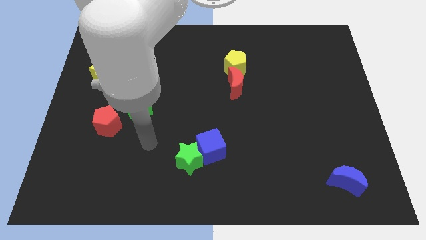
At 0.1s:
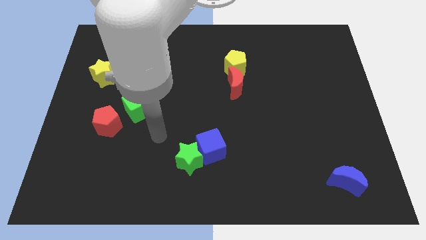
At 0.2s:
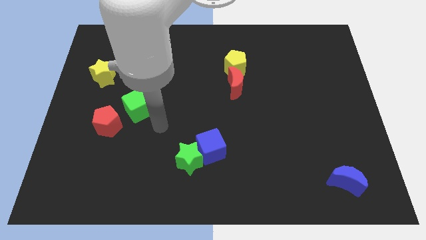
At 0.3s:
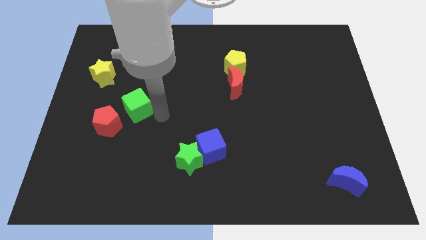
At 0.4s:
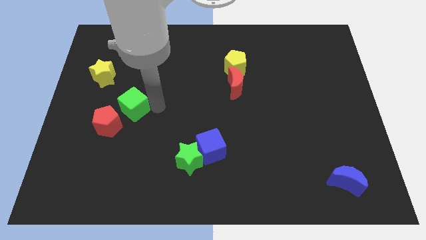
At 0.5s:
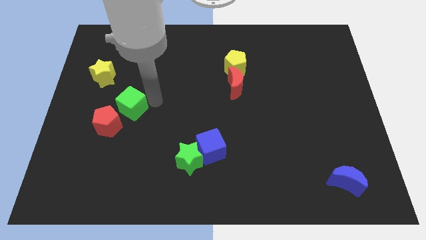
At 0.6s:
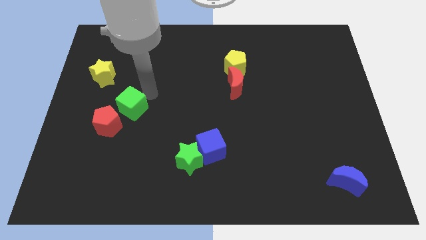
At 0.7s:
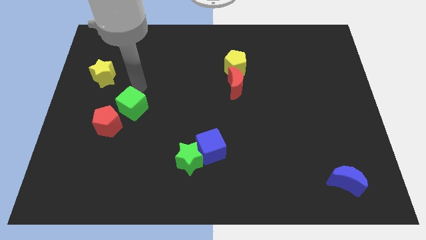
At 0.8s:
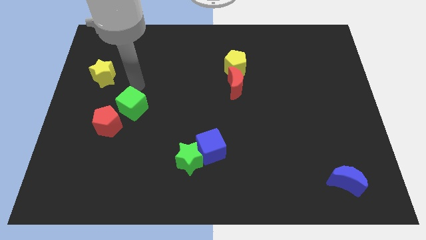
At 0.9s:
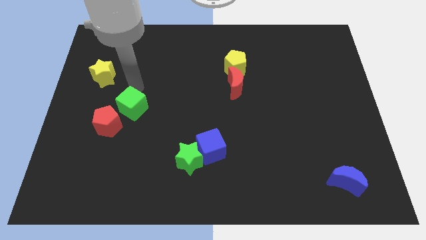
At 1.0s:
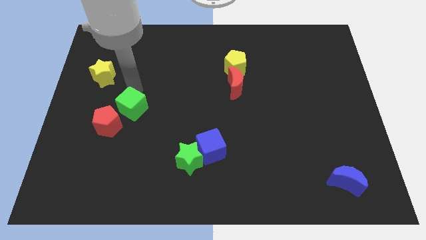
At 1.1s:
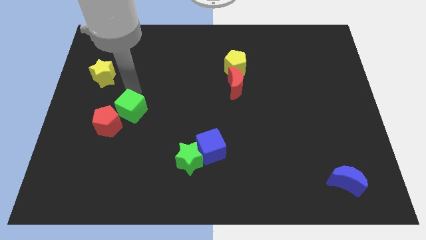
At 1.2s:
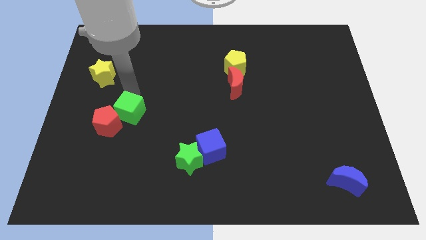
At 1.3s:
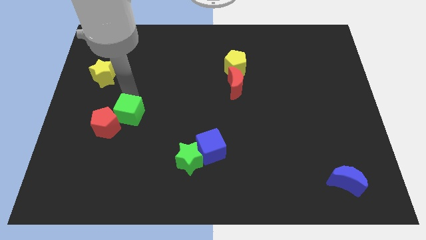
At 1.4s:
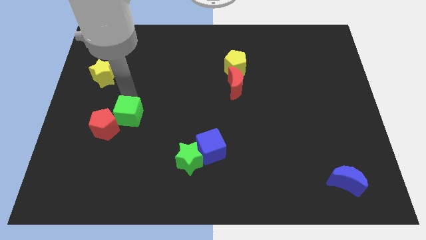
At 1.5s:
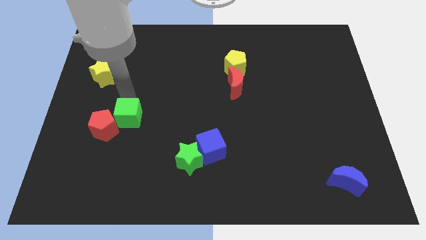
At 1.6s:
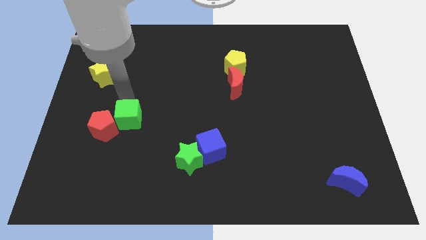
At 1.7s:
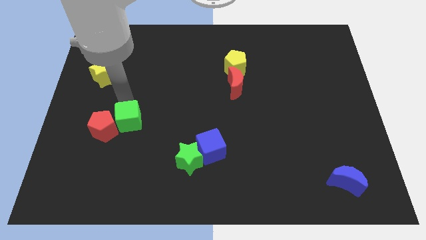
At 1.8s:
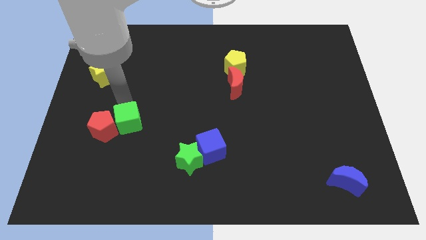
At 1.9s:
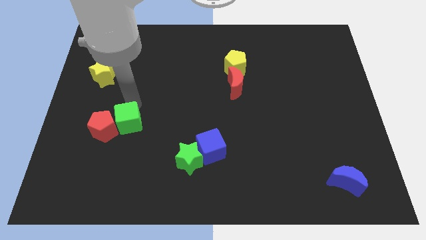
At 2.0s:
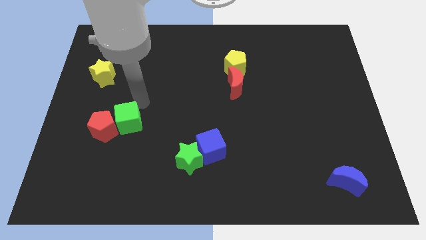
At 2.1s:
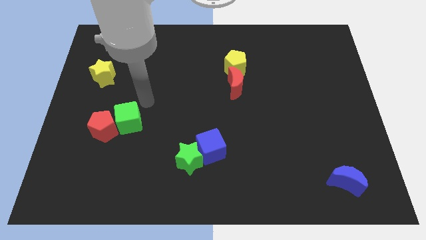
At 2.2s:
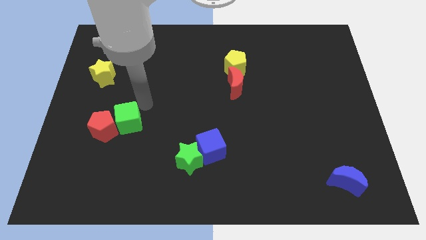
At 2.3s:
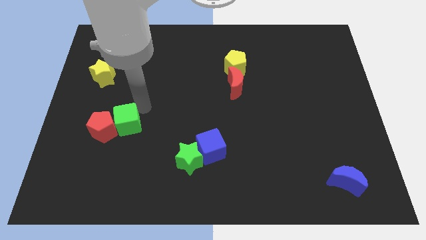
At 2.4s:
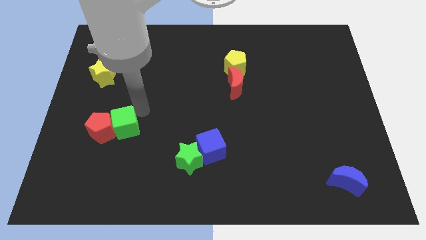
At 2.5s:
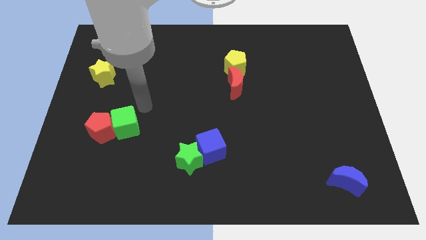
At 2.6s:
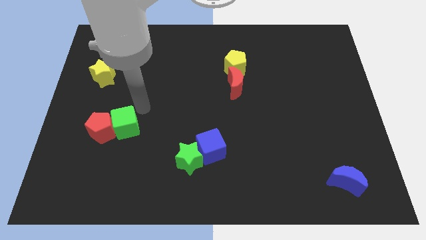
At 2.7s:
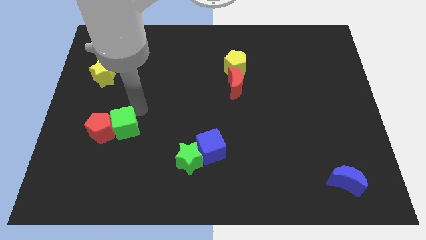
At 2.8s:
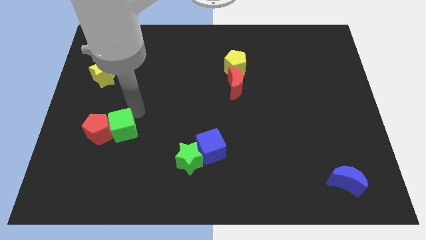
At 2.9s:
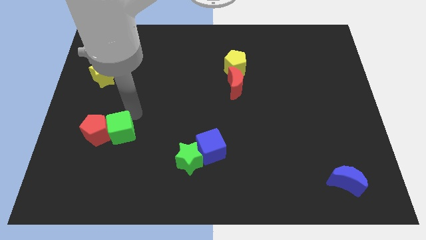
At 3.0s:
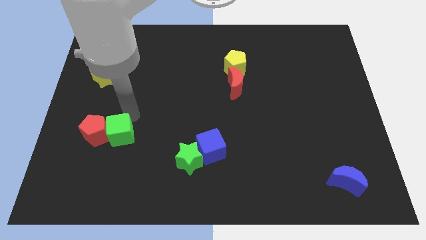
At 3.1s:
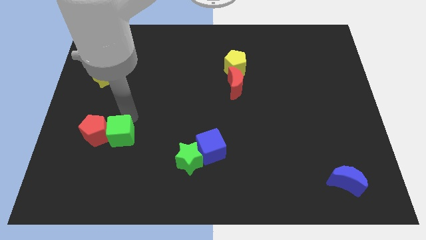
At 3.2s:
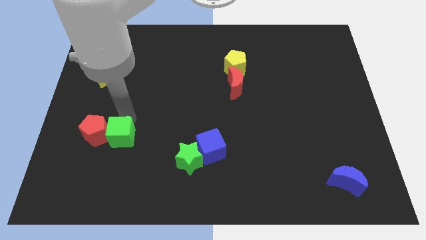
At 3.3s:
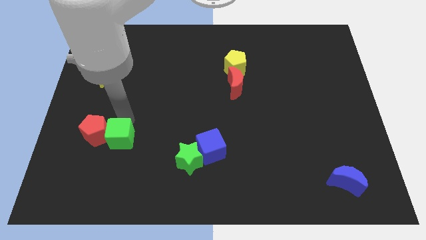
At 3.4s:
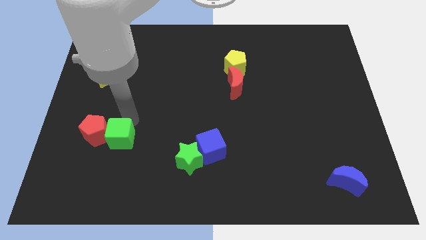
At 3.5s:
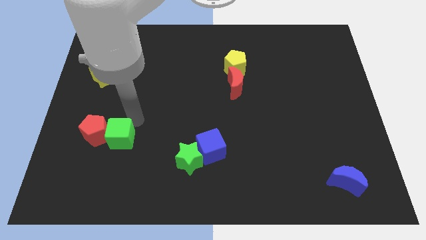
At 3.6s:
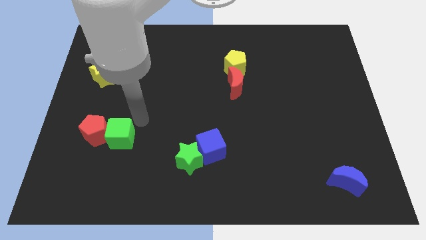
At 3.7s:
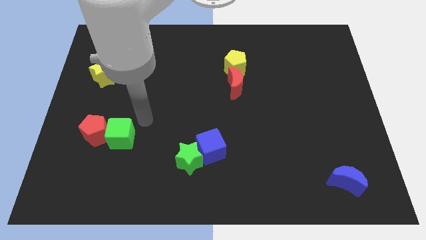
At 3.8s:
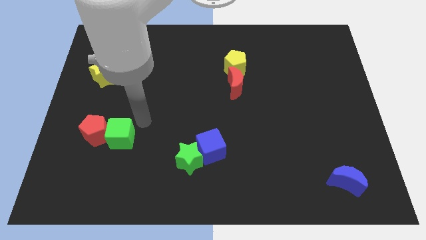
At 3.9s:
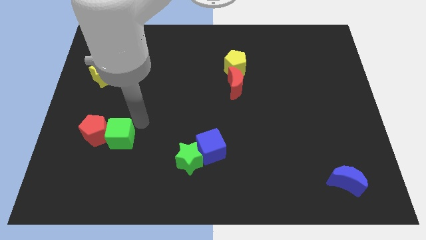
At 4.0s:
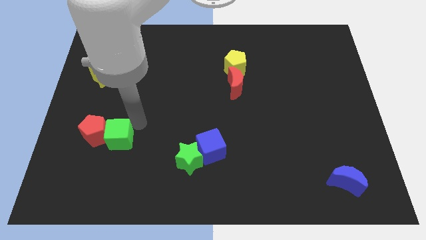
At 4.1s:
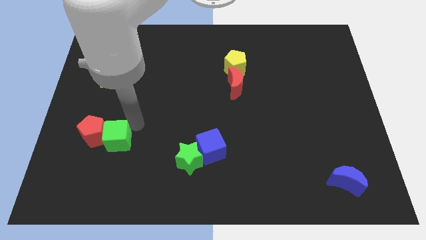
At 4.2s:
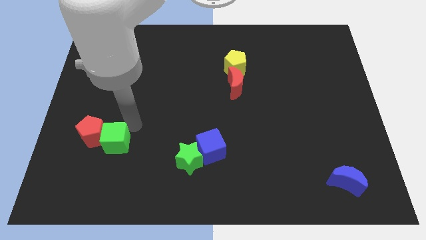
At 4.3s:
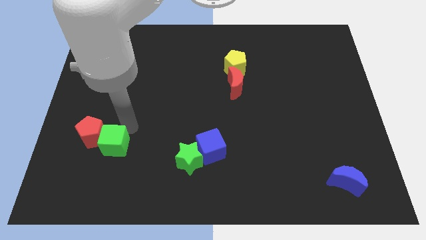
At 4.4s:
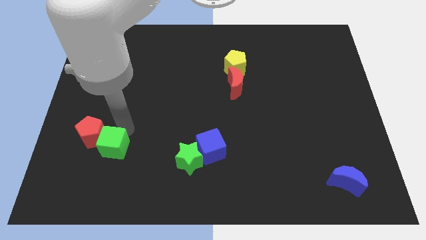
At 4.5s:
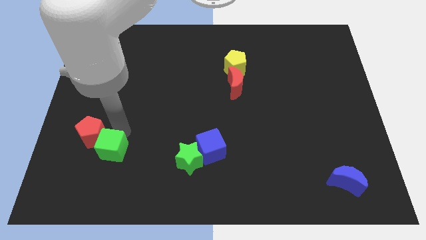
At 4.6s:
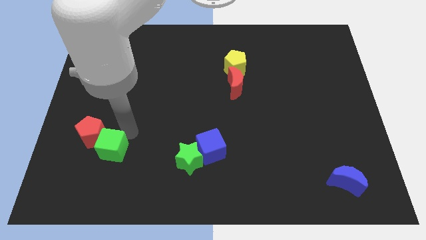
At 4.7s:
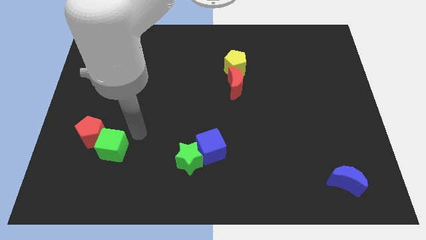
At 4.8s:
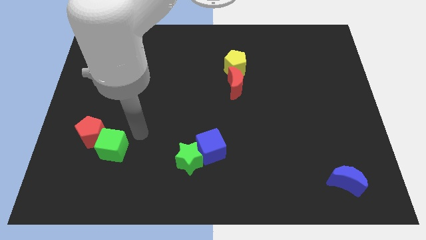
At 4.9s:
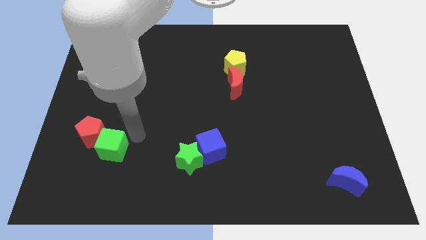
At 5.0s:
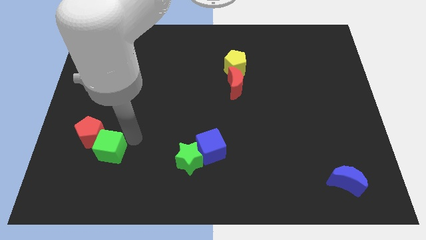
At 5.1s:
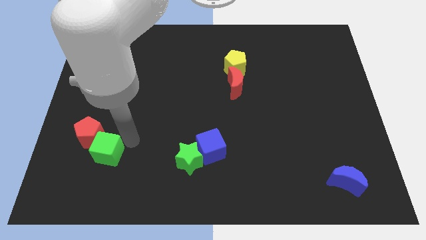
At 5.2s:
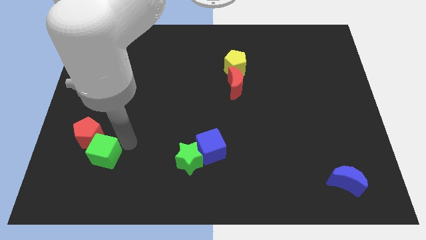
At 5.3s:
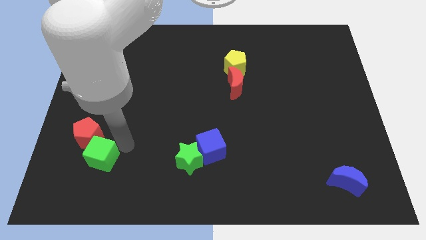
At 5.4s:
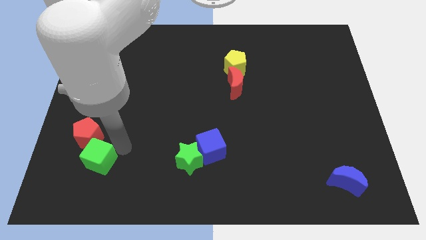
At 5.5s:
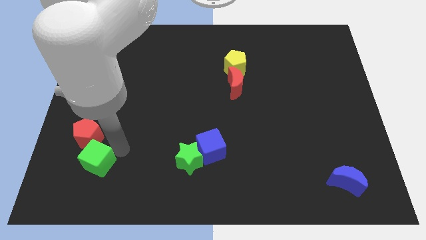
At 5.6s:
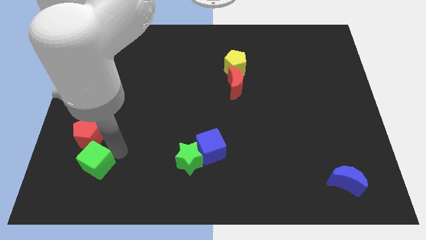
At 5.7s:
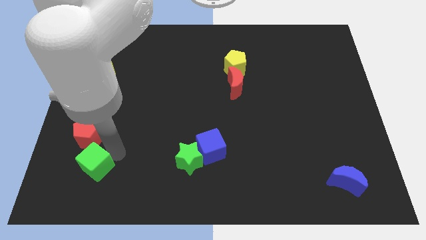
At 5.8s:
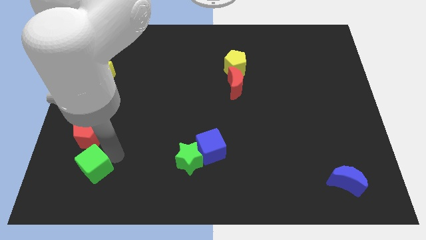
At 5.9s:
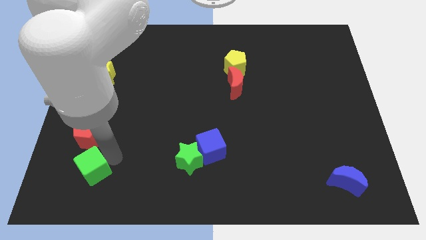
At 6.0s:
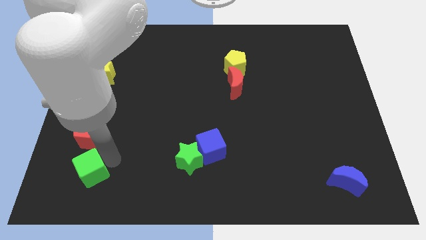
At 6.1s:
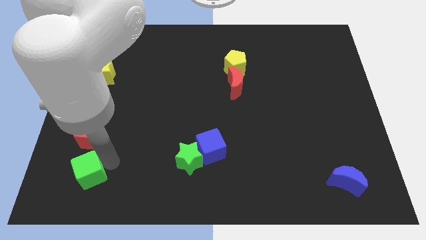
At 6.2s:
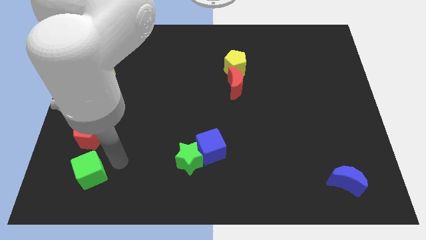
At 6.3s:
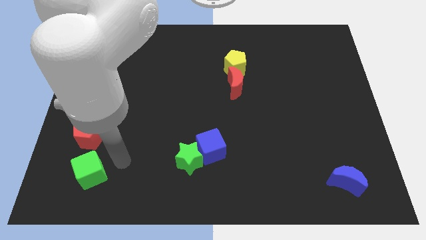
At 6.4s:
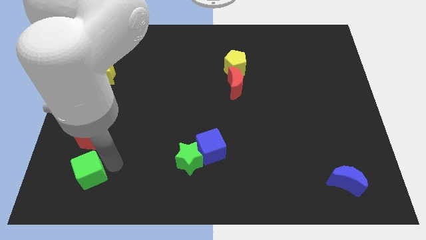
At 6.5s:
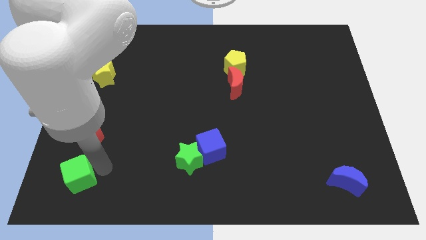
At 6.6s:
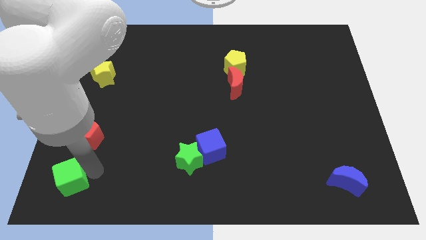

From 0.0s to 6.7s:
slide the green cube to the bottom left of the board

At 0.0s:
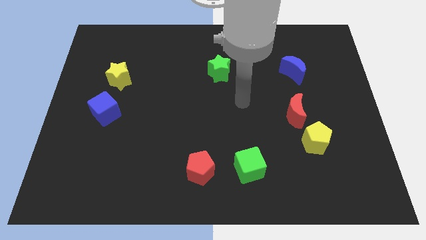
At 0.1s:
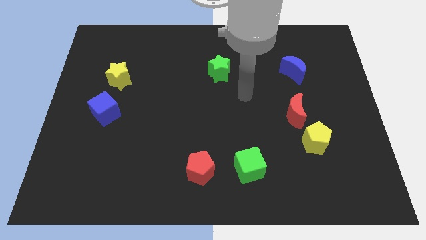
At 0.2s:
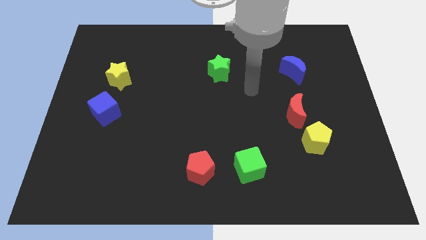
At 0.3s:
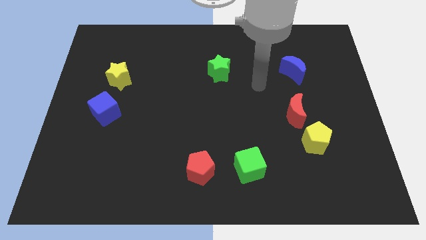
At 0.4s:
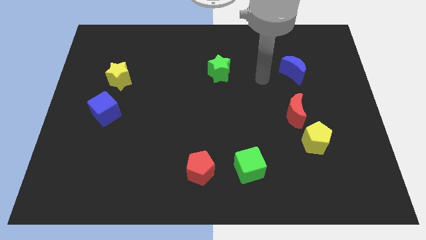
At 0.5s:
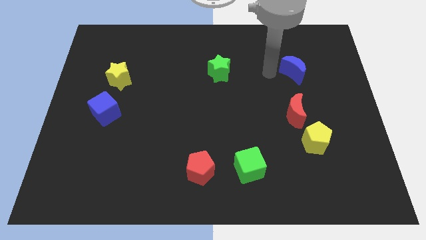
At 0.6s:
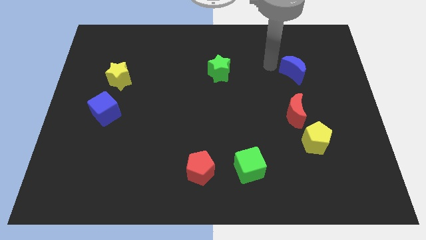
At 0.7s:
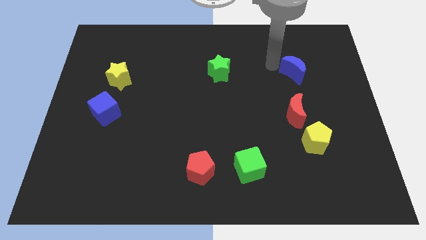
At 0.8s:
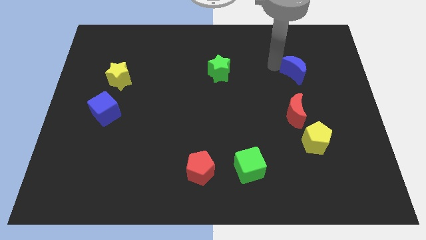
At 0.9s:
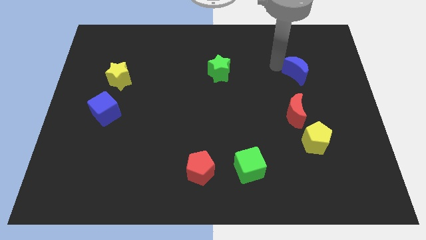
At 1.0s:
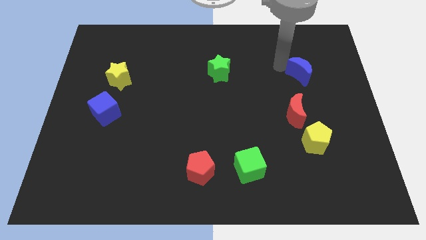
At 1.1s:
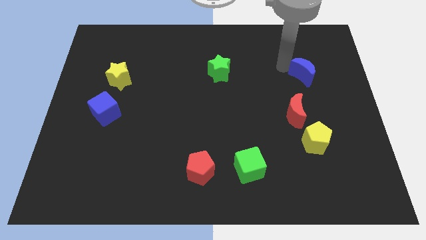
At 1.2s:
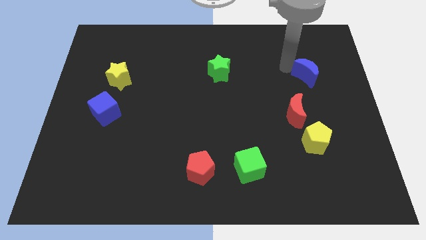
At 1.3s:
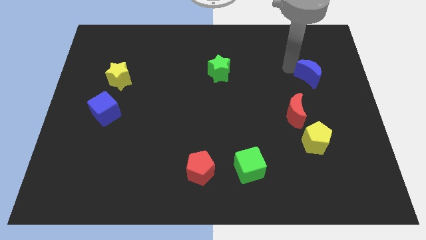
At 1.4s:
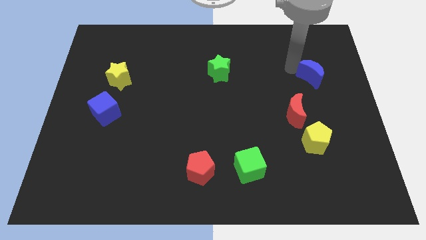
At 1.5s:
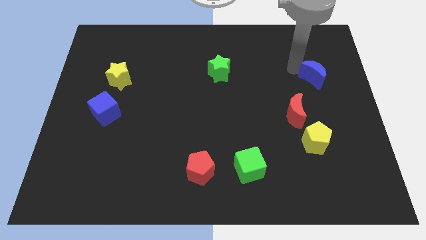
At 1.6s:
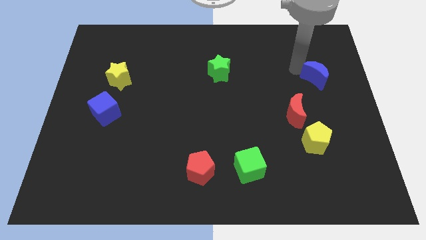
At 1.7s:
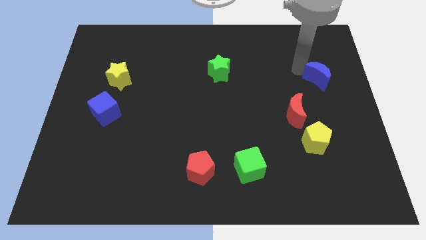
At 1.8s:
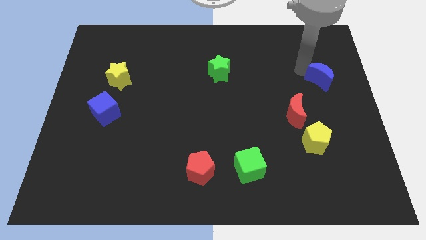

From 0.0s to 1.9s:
put the blue moon to the center right

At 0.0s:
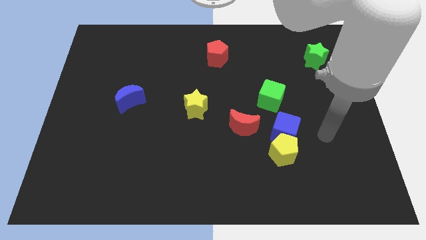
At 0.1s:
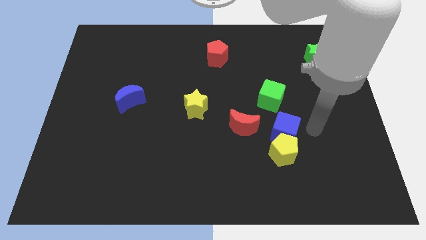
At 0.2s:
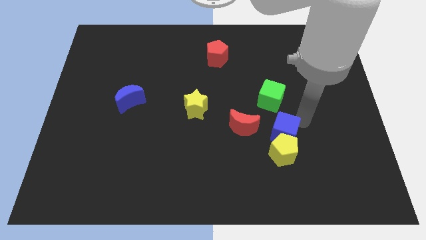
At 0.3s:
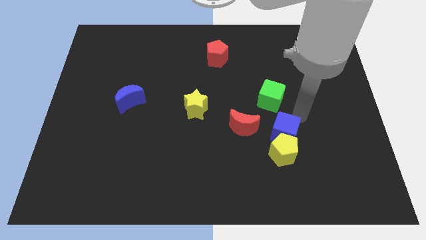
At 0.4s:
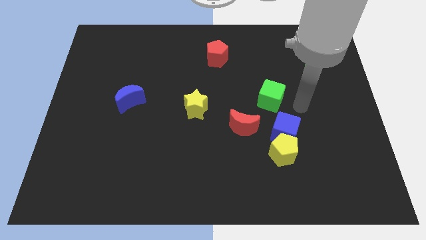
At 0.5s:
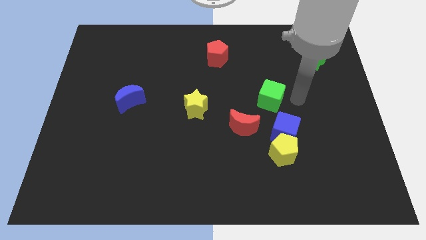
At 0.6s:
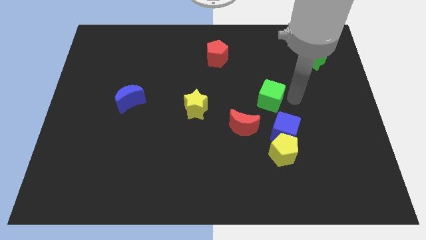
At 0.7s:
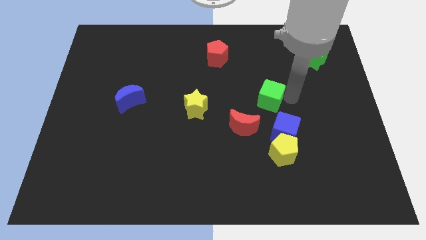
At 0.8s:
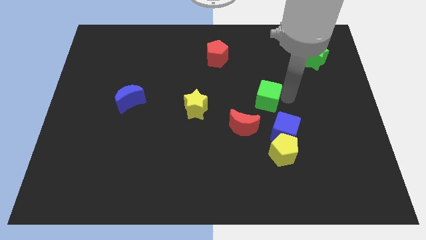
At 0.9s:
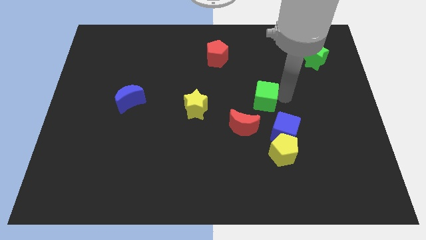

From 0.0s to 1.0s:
slide the green cube to the center
